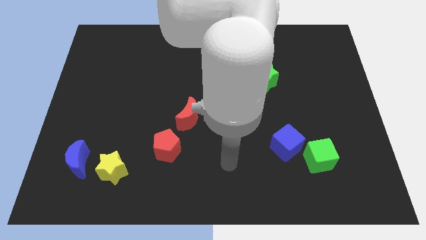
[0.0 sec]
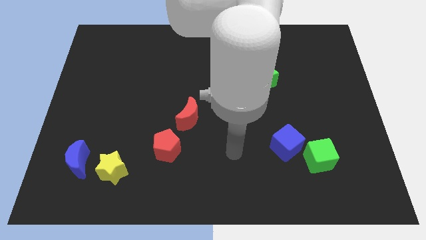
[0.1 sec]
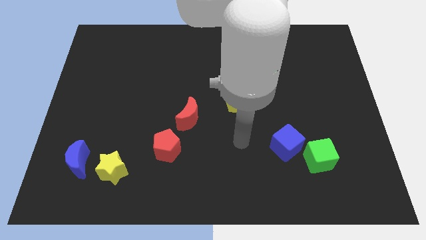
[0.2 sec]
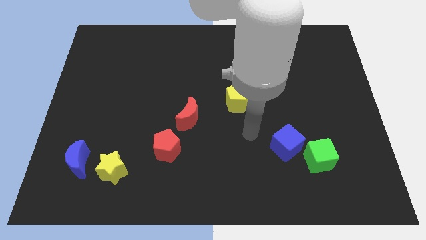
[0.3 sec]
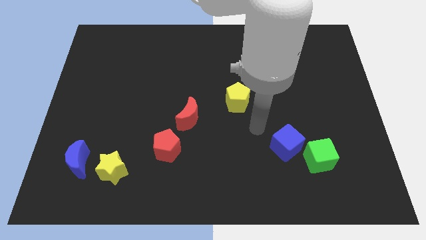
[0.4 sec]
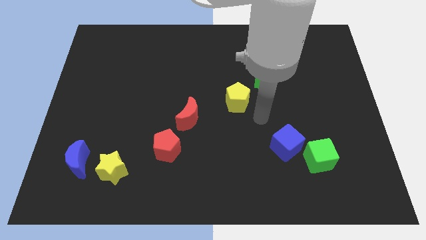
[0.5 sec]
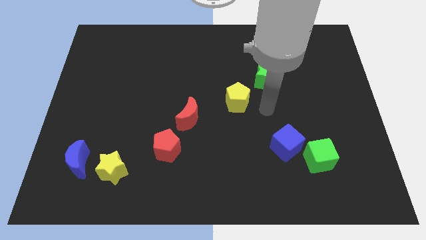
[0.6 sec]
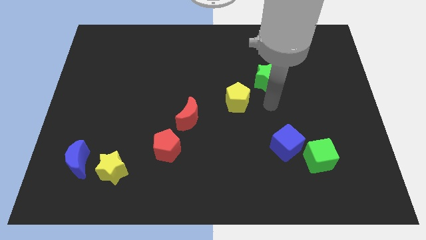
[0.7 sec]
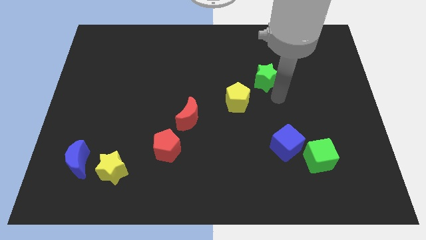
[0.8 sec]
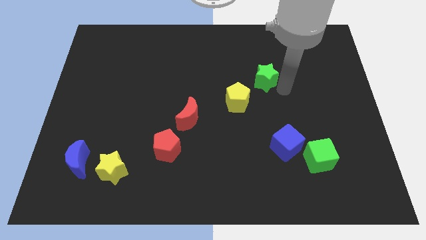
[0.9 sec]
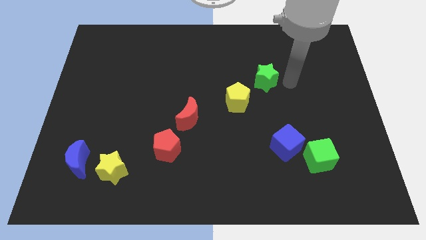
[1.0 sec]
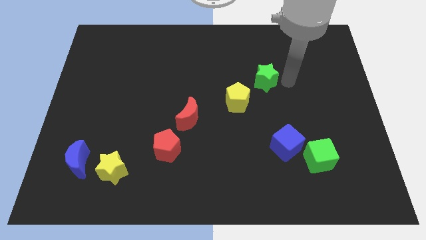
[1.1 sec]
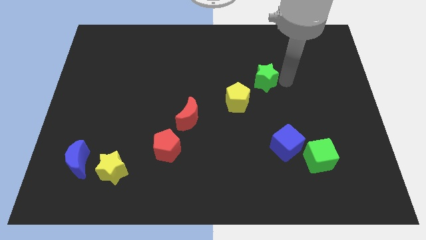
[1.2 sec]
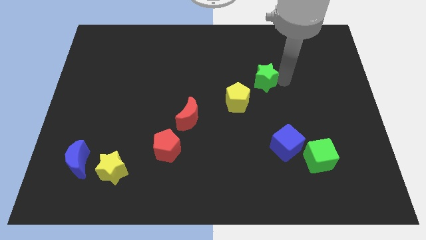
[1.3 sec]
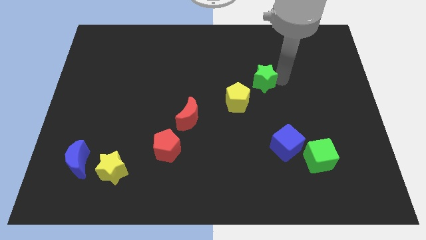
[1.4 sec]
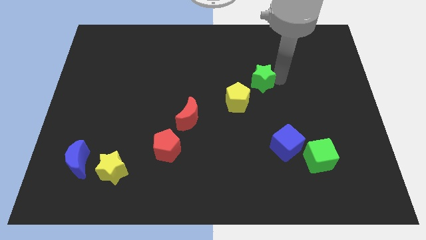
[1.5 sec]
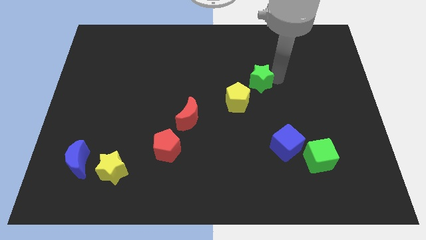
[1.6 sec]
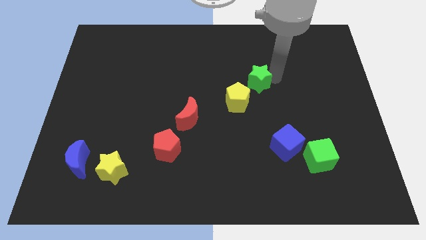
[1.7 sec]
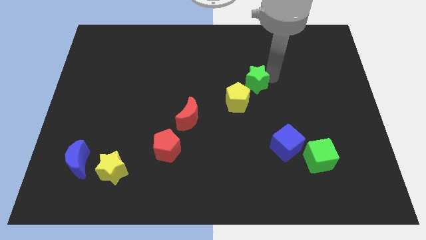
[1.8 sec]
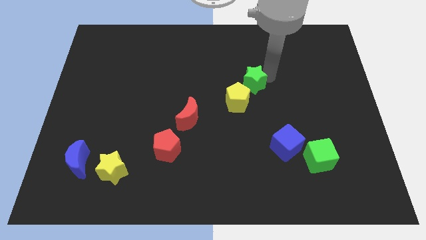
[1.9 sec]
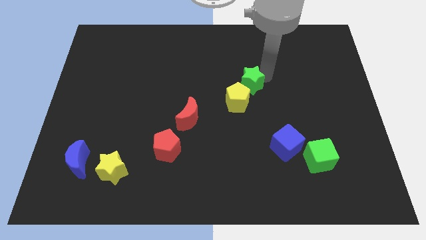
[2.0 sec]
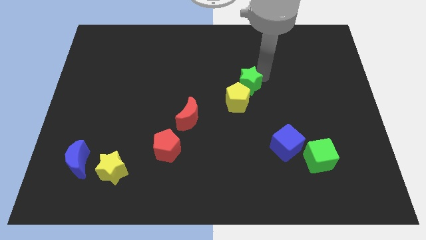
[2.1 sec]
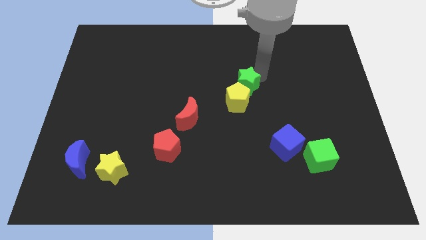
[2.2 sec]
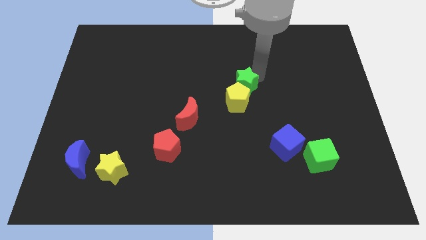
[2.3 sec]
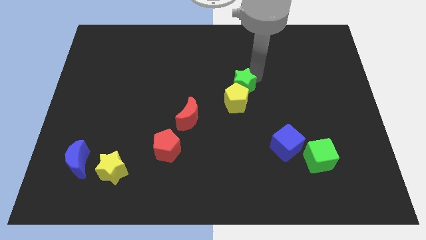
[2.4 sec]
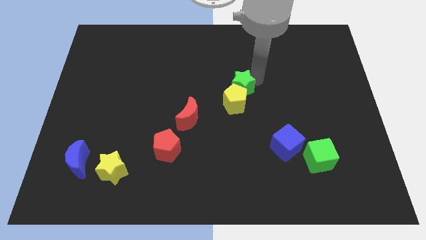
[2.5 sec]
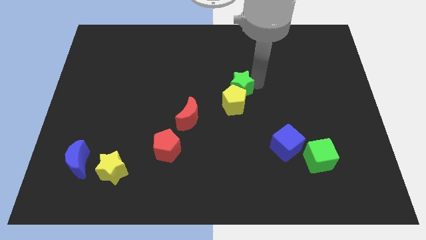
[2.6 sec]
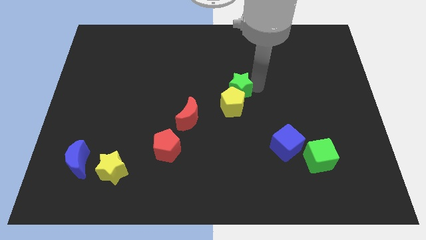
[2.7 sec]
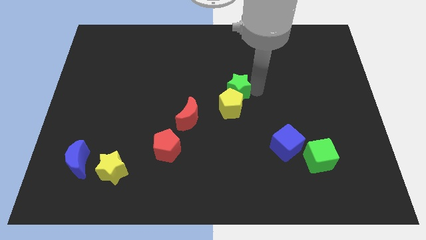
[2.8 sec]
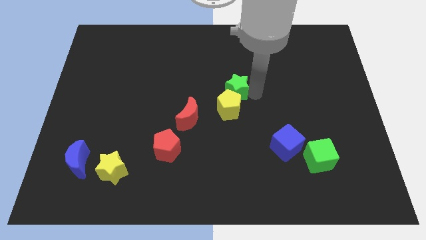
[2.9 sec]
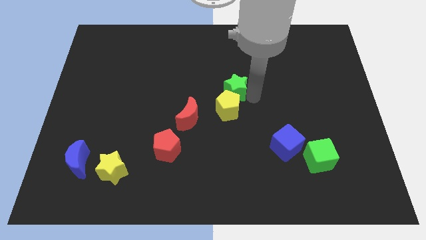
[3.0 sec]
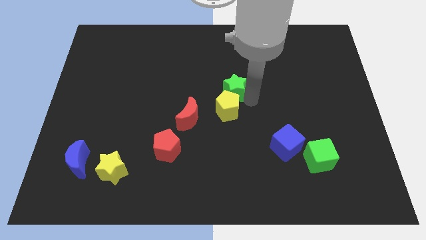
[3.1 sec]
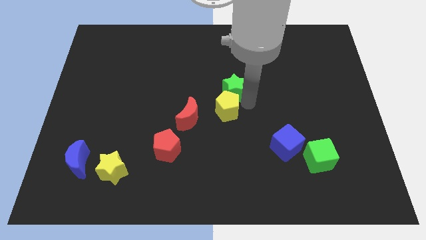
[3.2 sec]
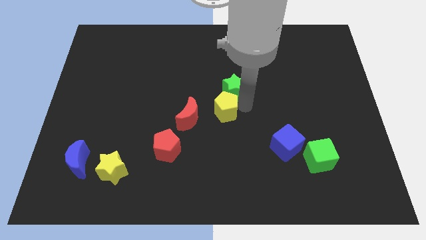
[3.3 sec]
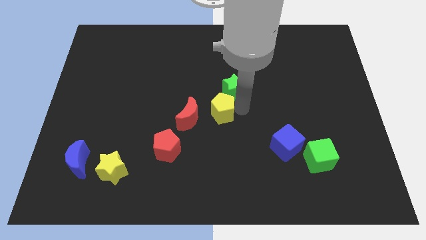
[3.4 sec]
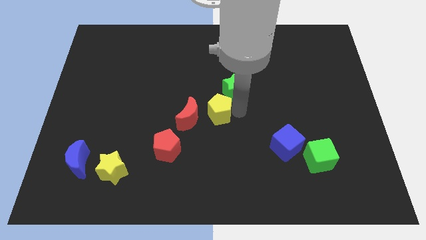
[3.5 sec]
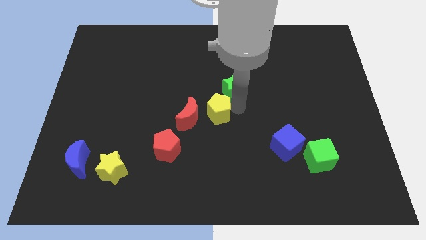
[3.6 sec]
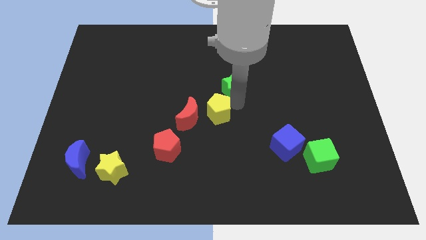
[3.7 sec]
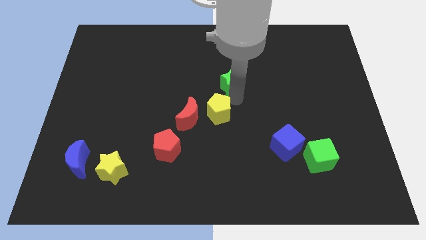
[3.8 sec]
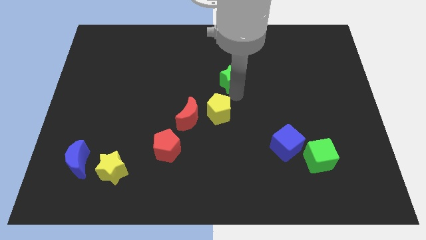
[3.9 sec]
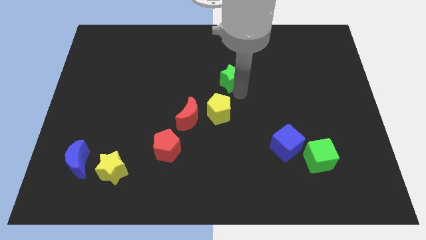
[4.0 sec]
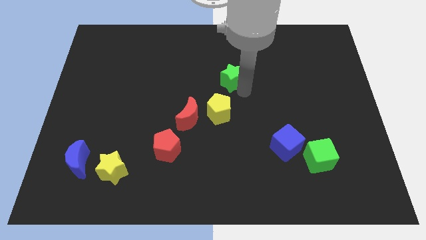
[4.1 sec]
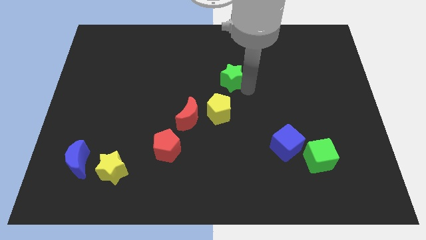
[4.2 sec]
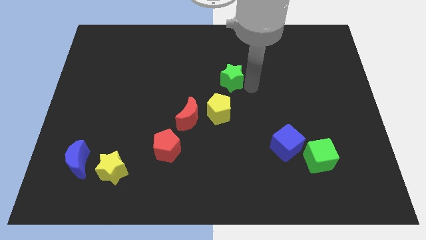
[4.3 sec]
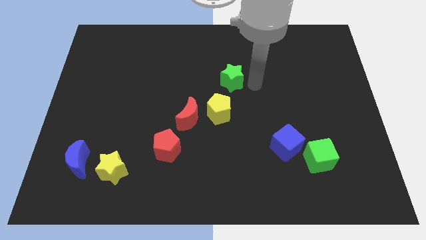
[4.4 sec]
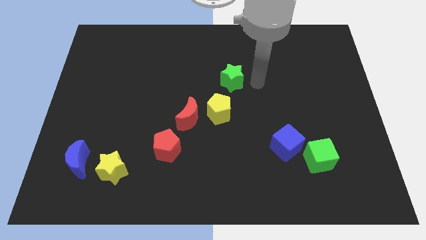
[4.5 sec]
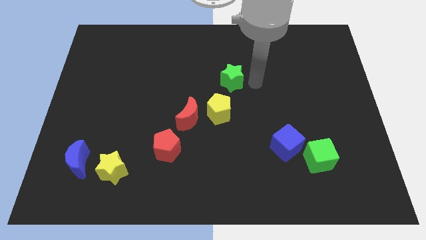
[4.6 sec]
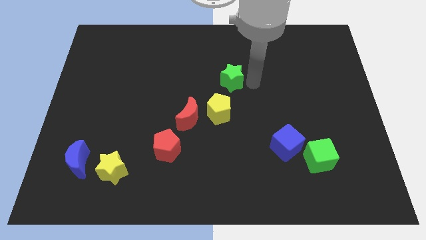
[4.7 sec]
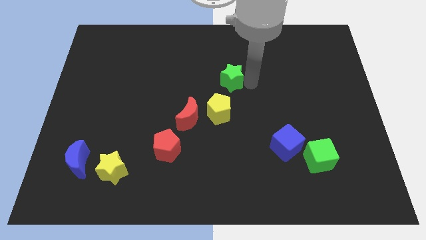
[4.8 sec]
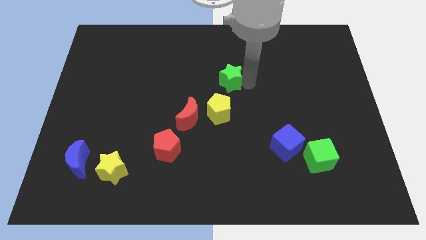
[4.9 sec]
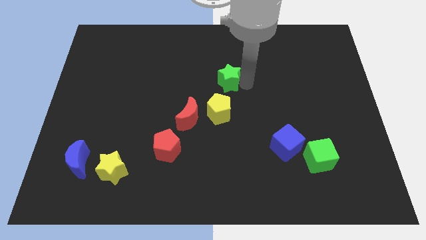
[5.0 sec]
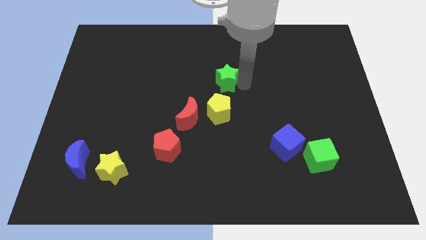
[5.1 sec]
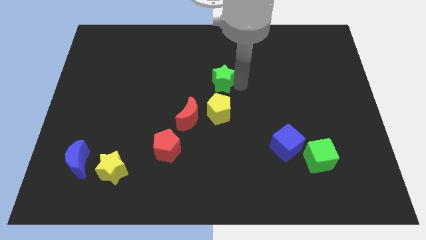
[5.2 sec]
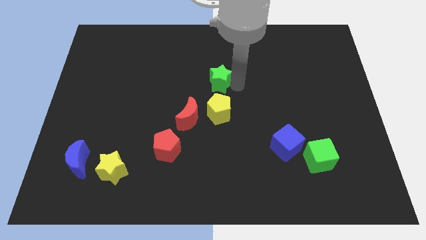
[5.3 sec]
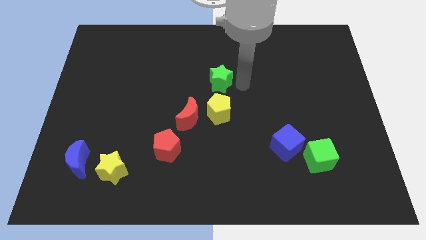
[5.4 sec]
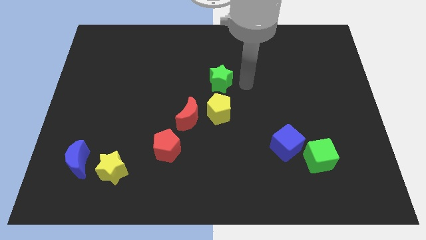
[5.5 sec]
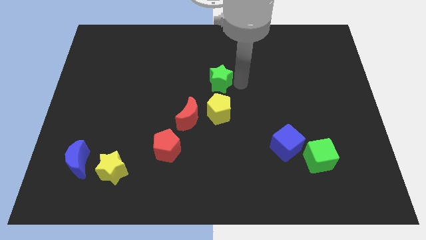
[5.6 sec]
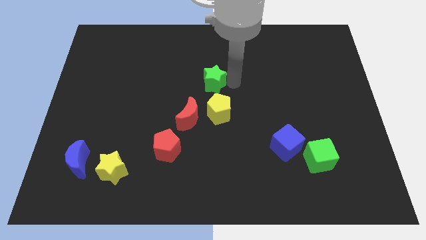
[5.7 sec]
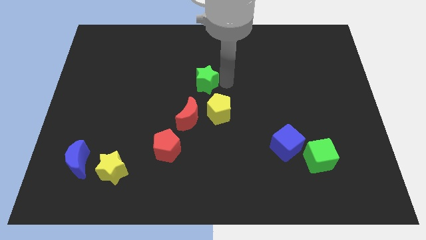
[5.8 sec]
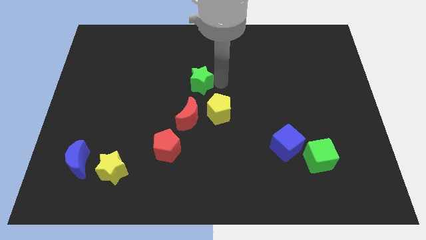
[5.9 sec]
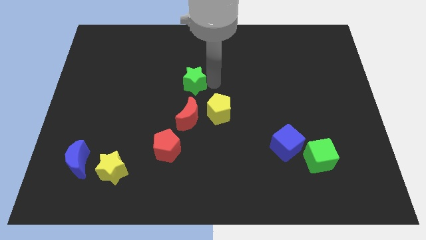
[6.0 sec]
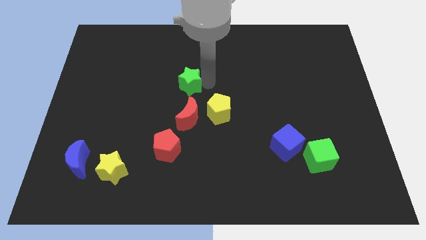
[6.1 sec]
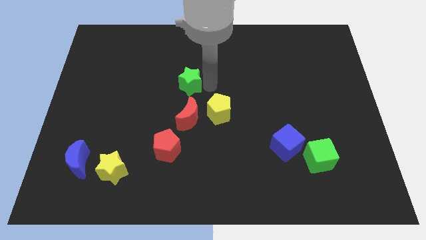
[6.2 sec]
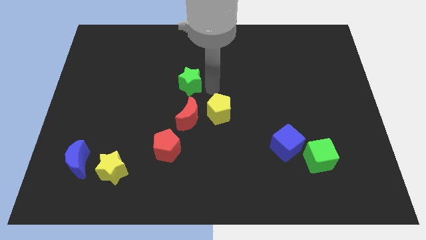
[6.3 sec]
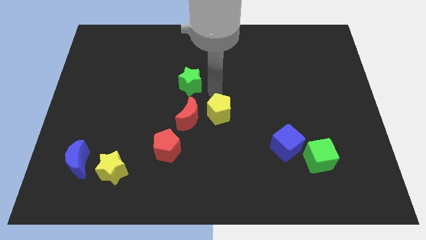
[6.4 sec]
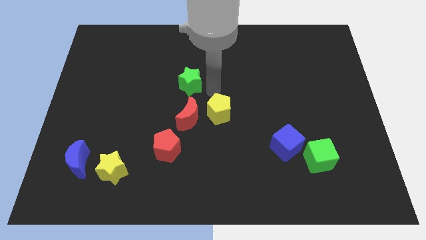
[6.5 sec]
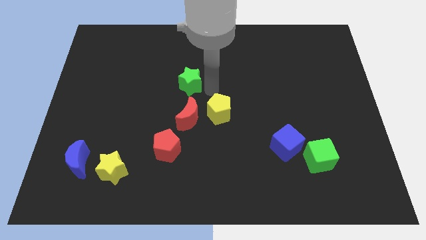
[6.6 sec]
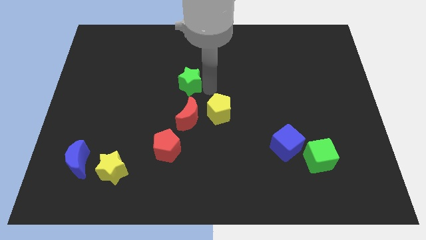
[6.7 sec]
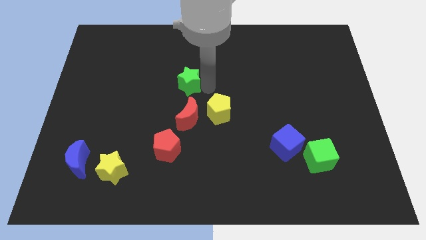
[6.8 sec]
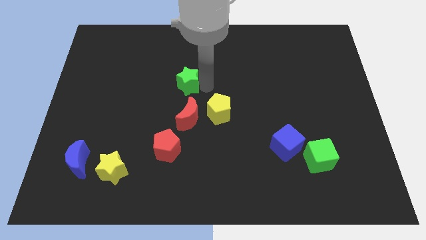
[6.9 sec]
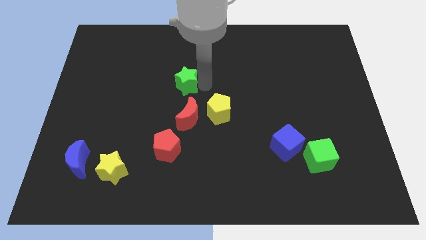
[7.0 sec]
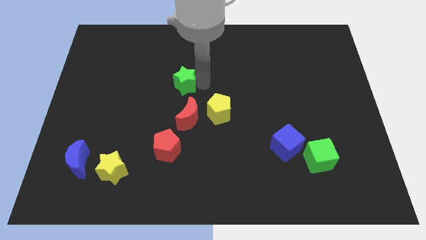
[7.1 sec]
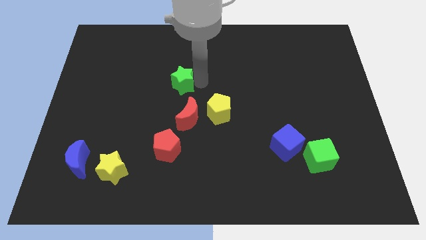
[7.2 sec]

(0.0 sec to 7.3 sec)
move the green star to the left
